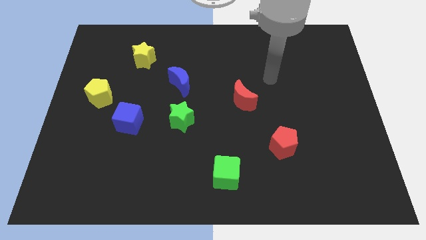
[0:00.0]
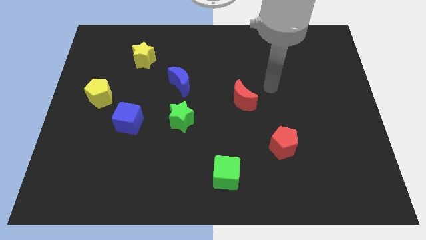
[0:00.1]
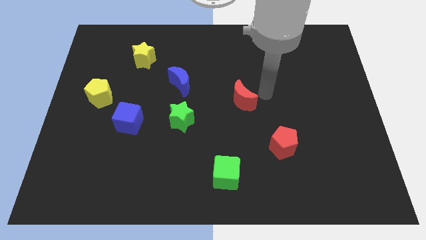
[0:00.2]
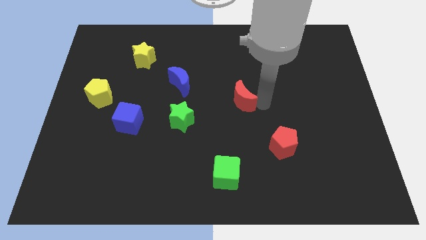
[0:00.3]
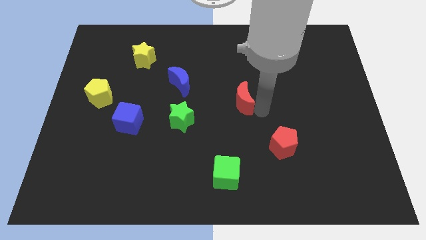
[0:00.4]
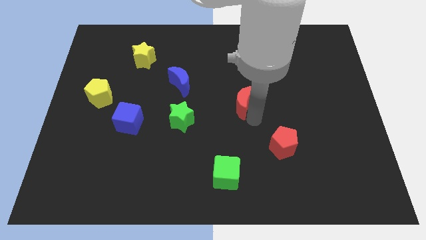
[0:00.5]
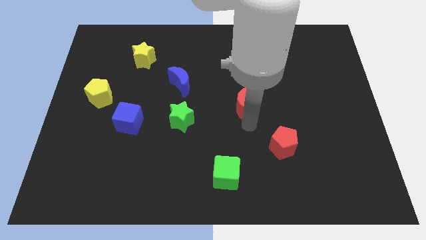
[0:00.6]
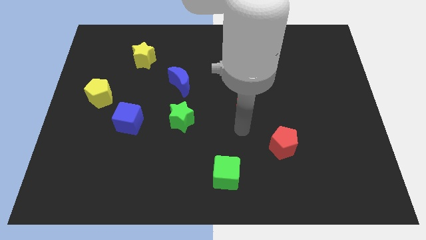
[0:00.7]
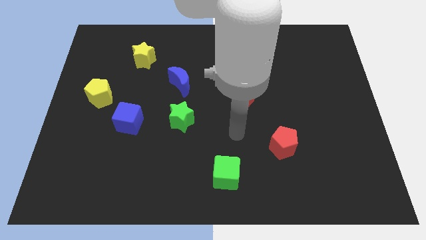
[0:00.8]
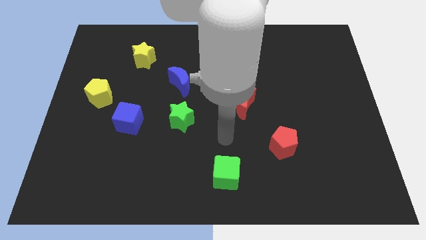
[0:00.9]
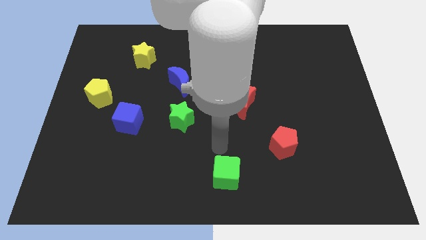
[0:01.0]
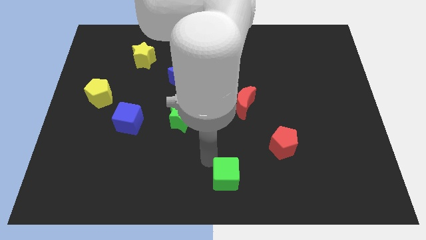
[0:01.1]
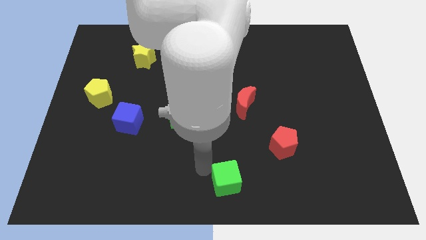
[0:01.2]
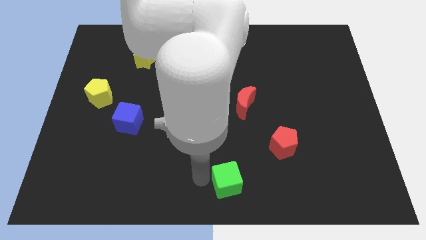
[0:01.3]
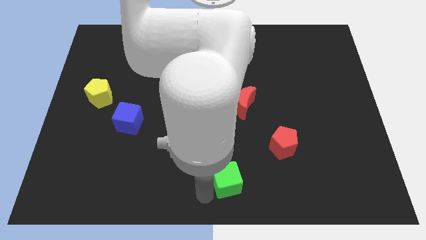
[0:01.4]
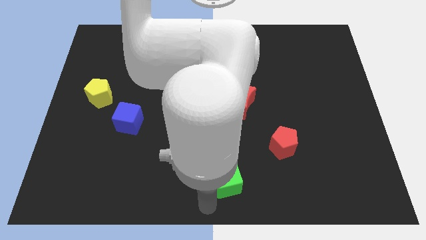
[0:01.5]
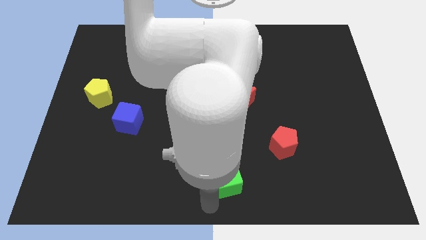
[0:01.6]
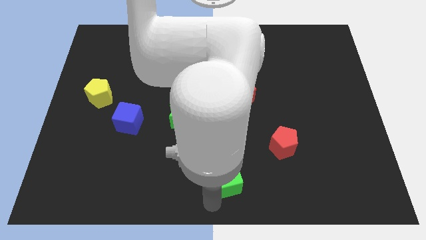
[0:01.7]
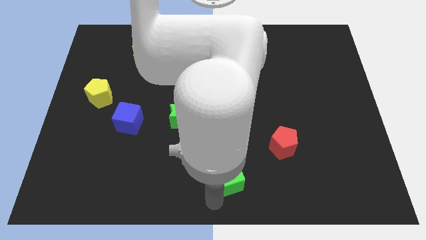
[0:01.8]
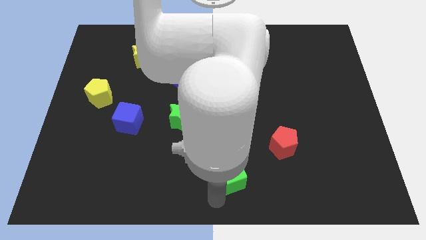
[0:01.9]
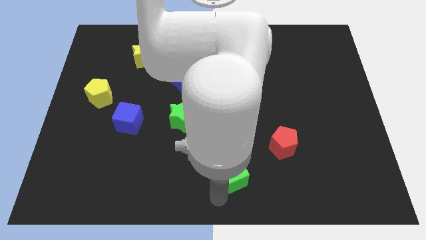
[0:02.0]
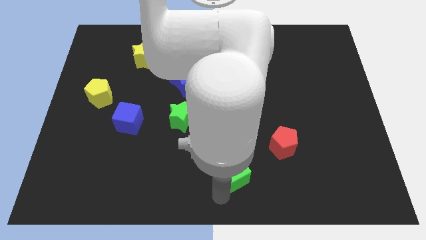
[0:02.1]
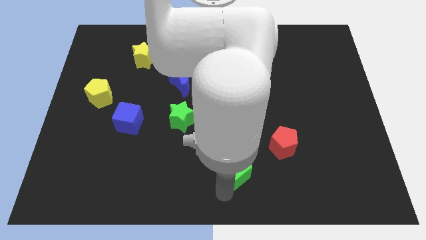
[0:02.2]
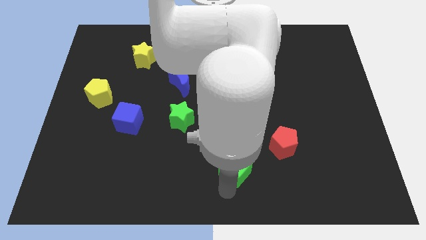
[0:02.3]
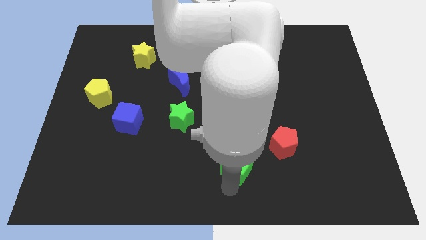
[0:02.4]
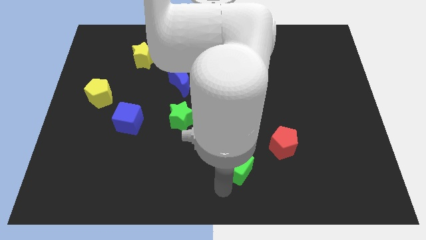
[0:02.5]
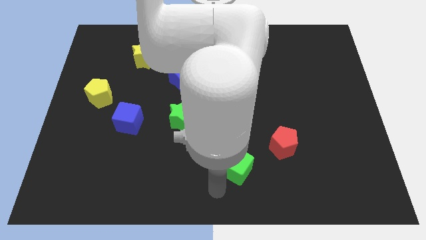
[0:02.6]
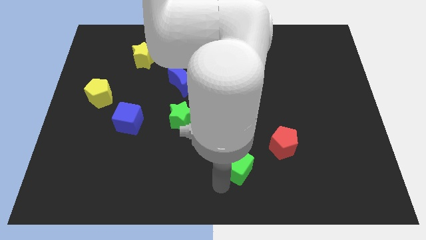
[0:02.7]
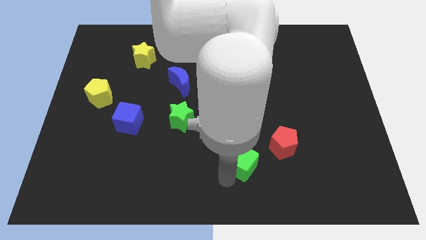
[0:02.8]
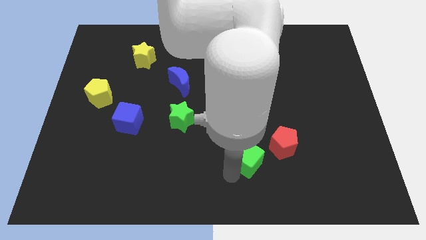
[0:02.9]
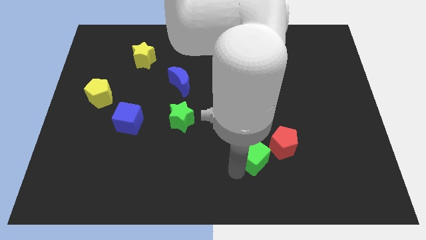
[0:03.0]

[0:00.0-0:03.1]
move the green cube somewhat up and right diagonally

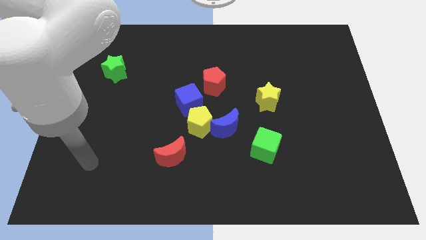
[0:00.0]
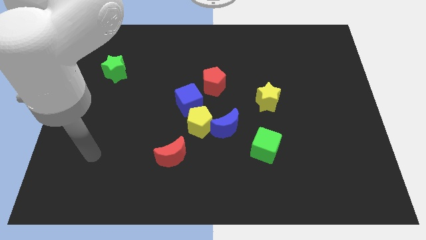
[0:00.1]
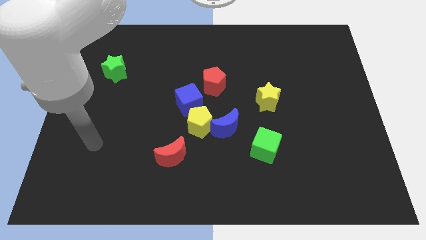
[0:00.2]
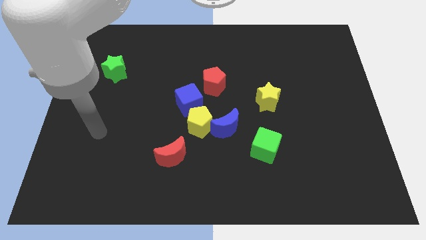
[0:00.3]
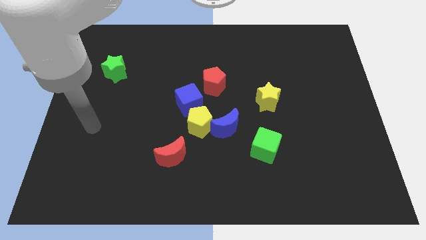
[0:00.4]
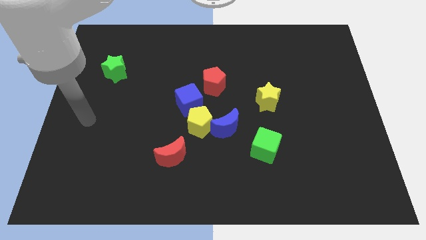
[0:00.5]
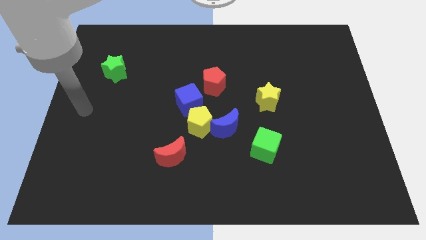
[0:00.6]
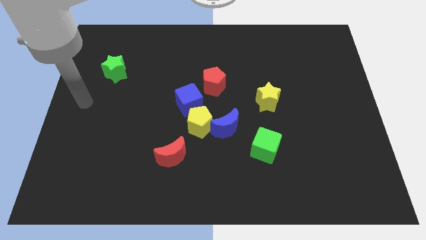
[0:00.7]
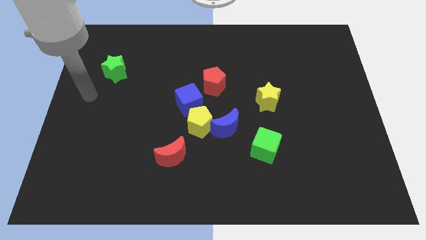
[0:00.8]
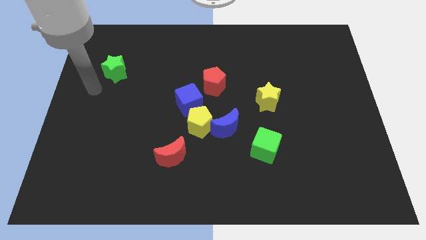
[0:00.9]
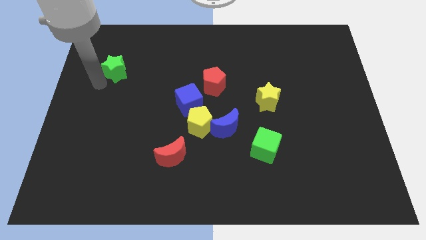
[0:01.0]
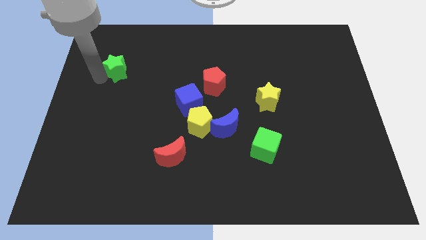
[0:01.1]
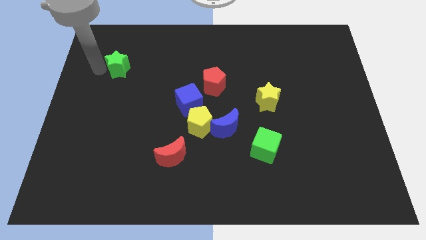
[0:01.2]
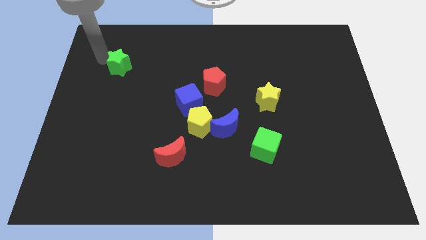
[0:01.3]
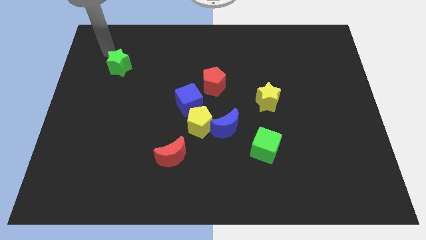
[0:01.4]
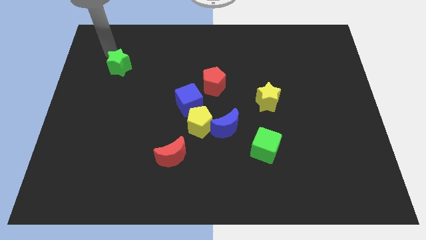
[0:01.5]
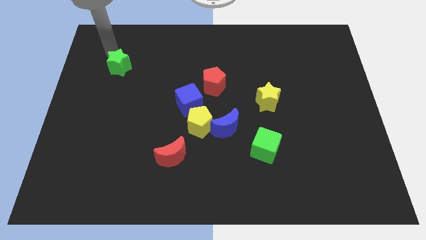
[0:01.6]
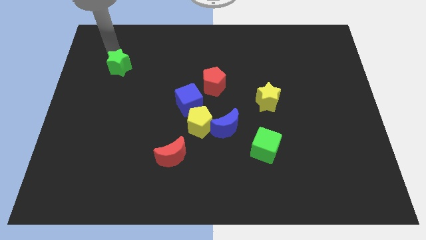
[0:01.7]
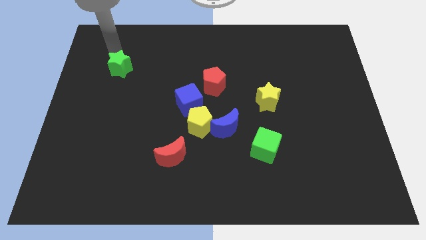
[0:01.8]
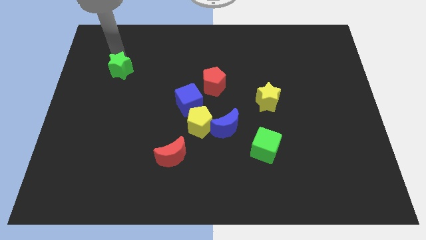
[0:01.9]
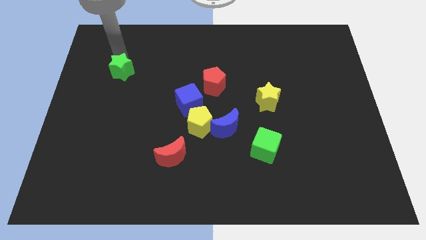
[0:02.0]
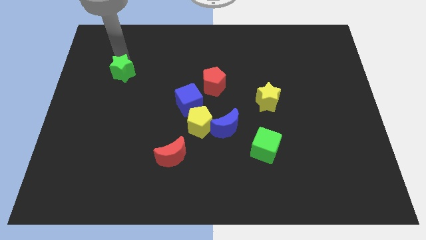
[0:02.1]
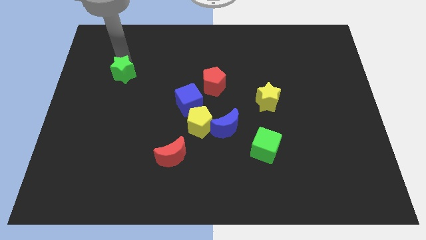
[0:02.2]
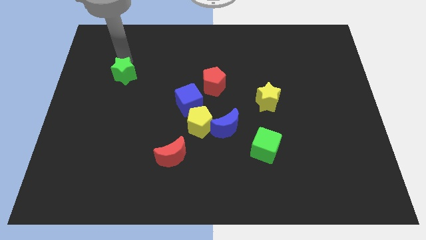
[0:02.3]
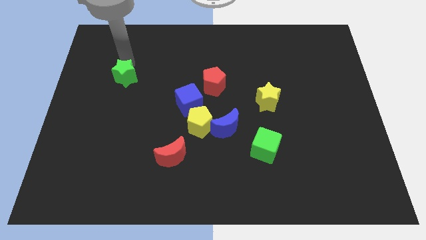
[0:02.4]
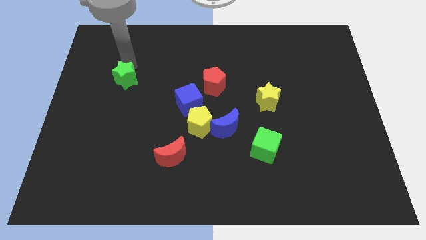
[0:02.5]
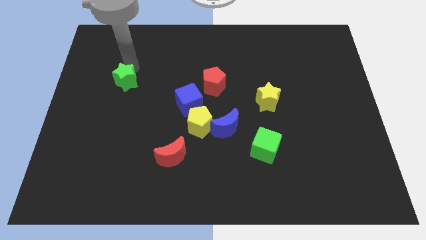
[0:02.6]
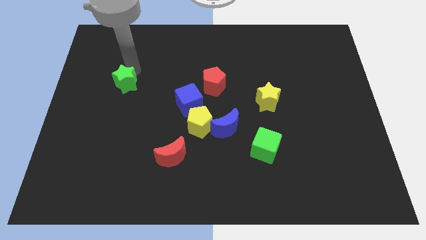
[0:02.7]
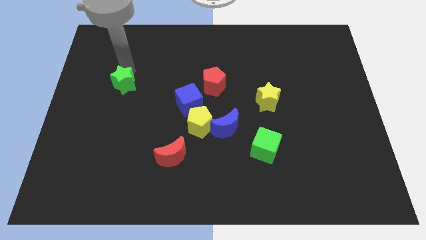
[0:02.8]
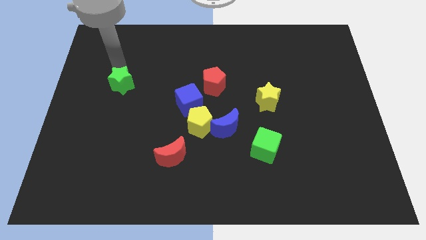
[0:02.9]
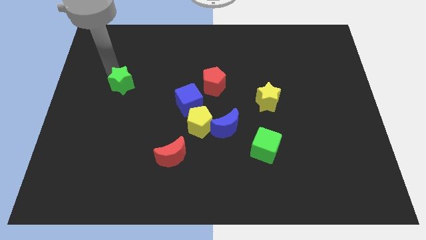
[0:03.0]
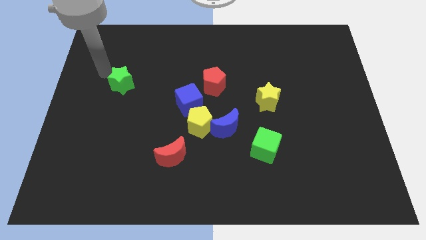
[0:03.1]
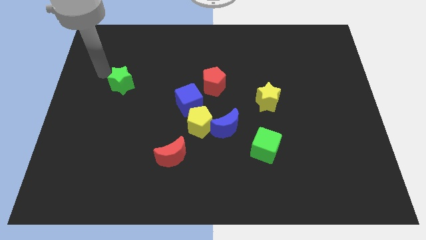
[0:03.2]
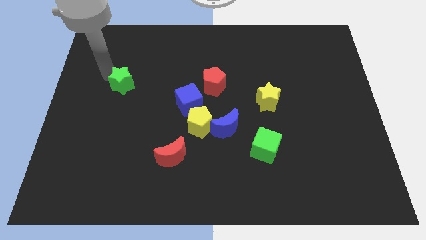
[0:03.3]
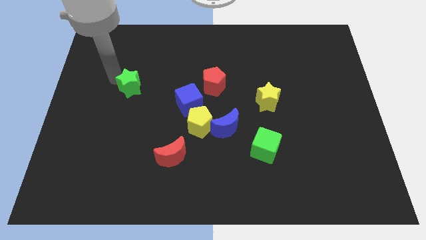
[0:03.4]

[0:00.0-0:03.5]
slightly move the green star down and then right

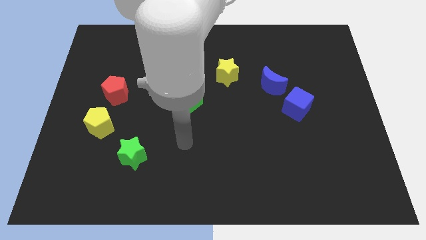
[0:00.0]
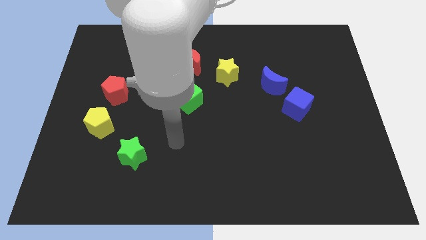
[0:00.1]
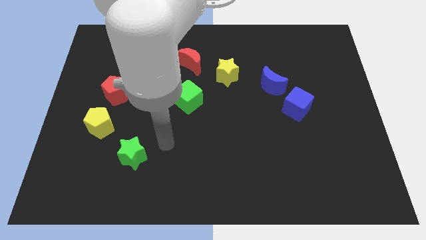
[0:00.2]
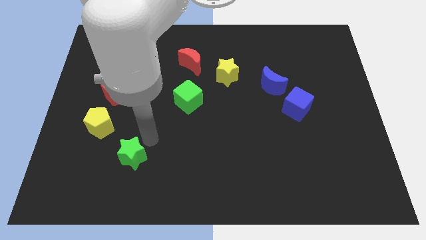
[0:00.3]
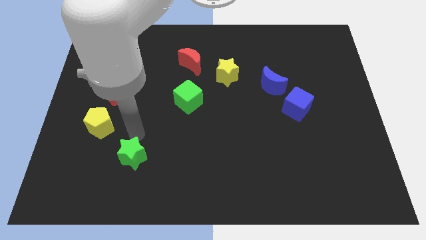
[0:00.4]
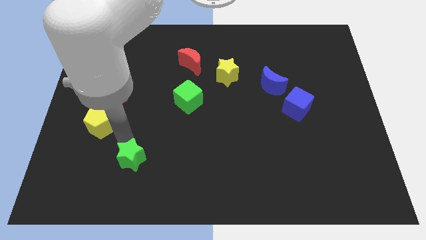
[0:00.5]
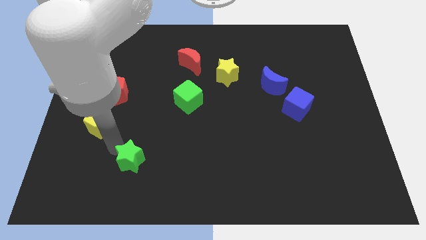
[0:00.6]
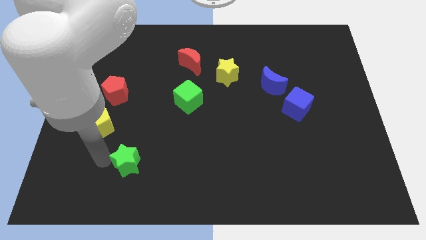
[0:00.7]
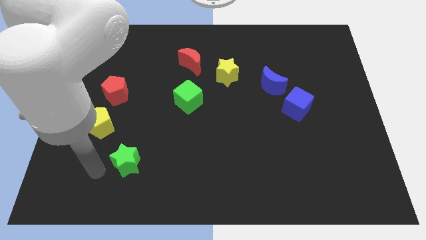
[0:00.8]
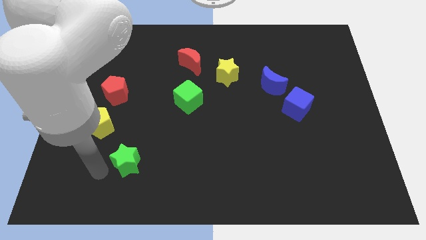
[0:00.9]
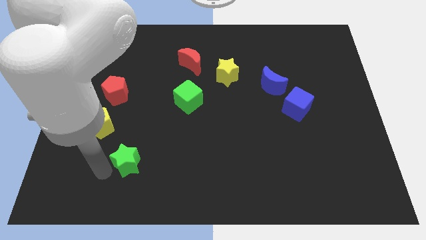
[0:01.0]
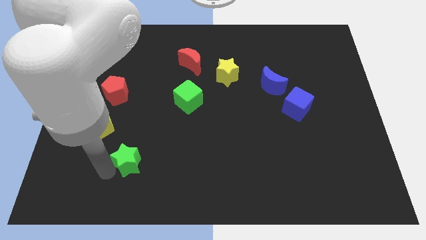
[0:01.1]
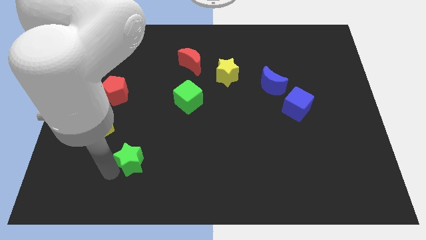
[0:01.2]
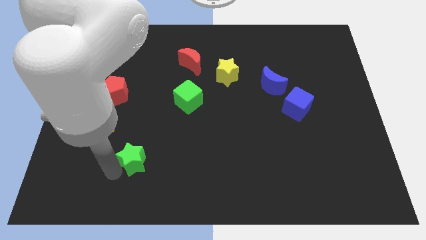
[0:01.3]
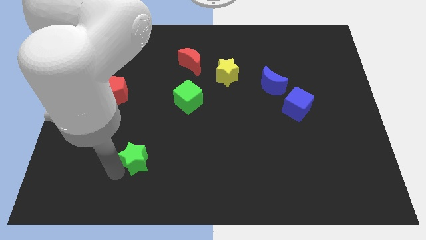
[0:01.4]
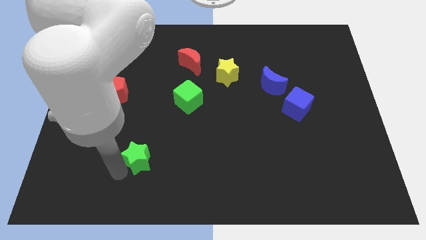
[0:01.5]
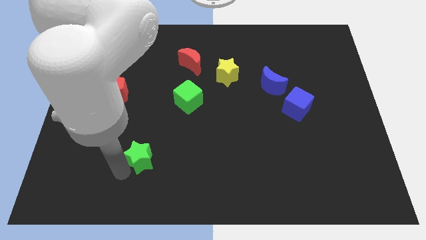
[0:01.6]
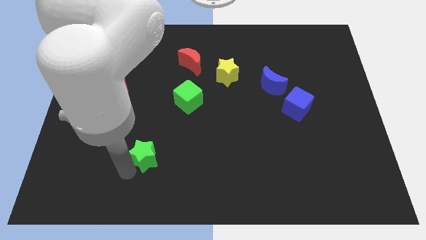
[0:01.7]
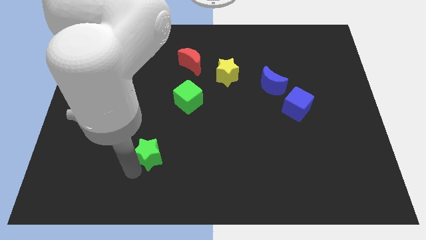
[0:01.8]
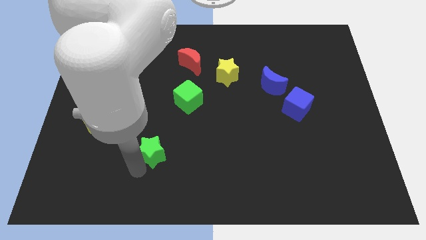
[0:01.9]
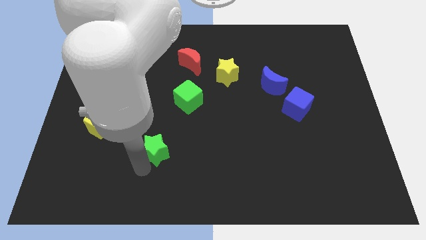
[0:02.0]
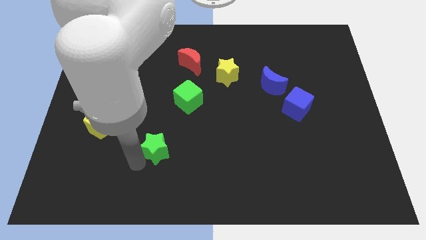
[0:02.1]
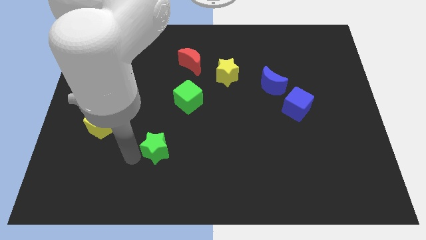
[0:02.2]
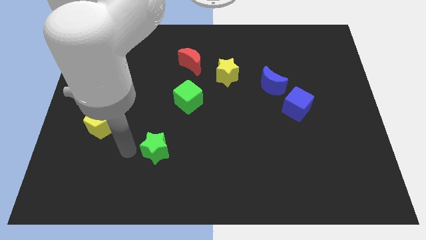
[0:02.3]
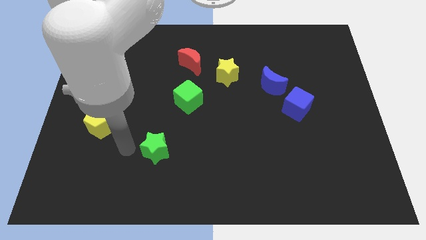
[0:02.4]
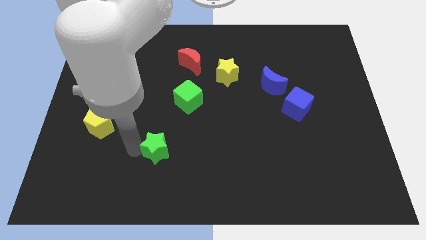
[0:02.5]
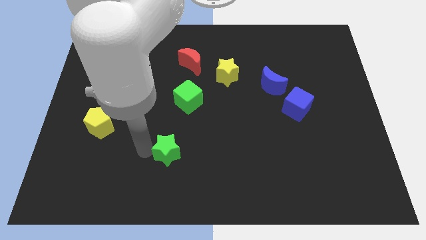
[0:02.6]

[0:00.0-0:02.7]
push the green star to the right a bit
